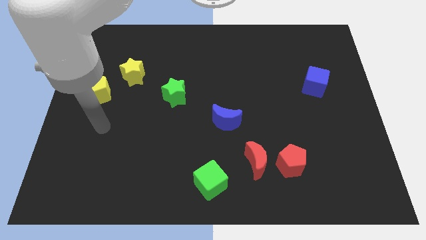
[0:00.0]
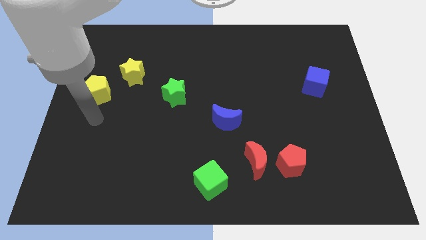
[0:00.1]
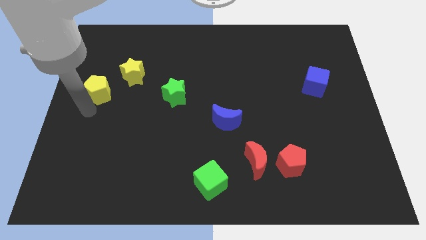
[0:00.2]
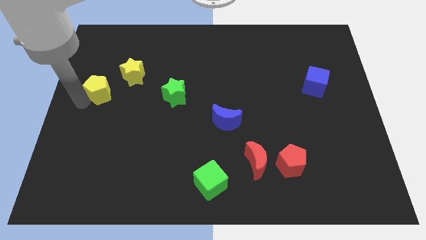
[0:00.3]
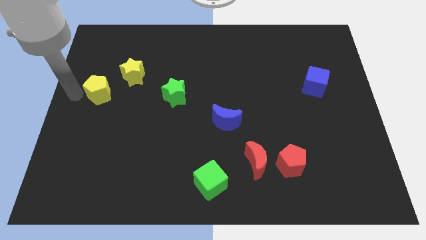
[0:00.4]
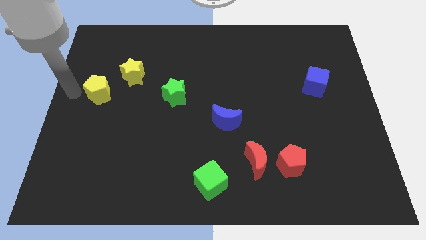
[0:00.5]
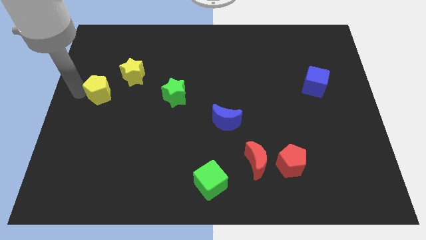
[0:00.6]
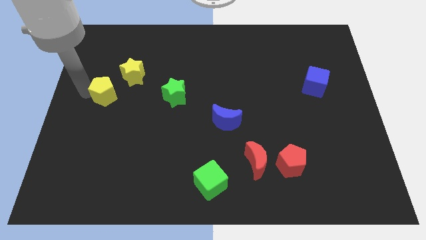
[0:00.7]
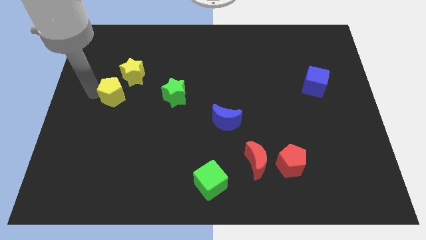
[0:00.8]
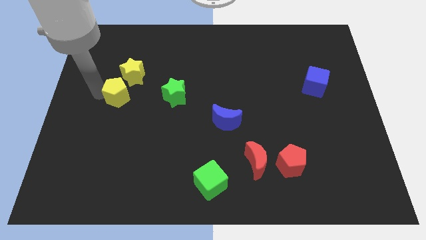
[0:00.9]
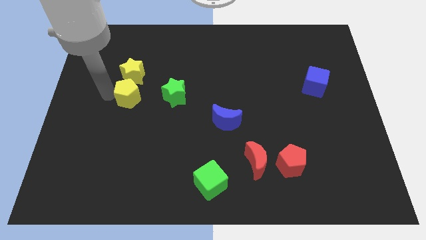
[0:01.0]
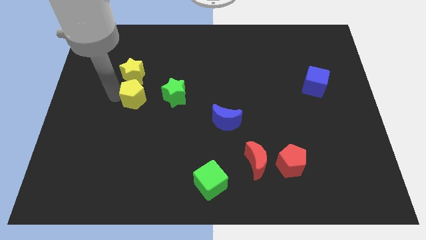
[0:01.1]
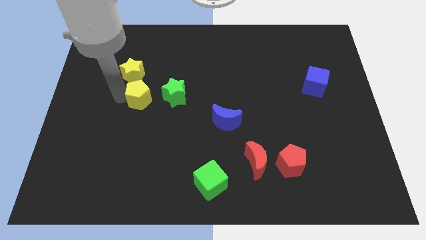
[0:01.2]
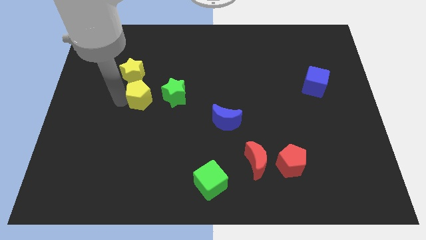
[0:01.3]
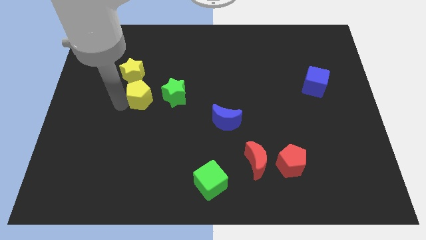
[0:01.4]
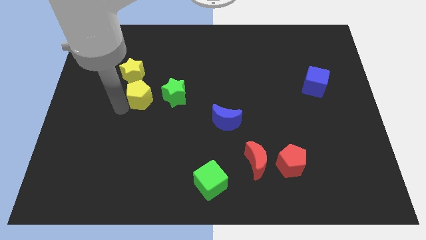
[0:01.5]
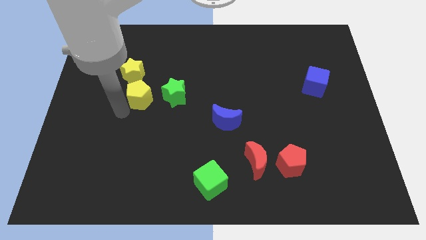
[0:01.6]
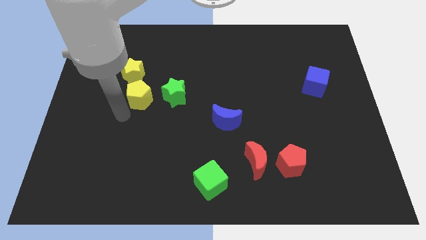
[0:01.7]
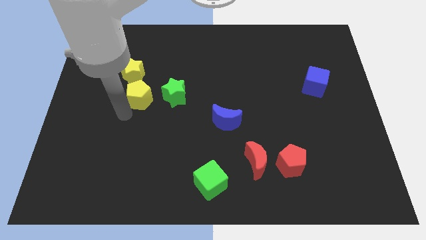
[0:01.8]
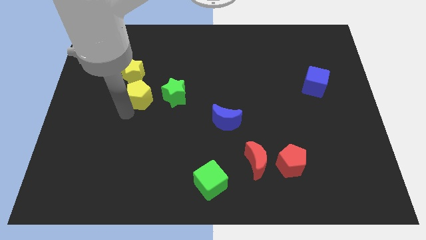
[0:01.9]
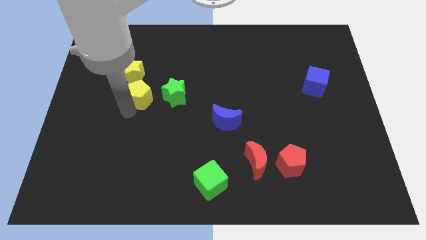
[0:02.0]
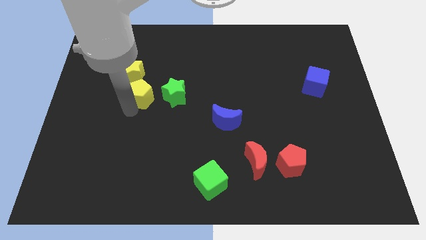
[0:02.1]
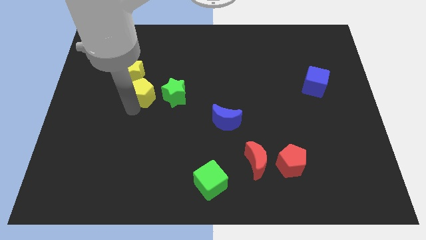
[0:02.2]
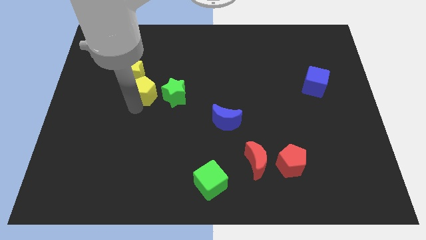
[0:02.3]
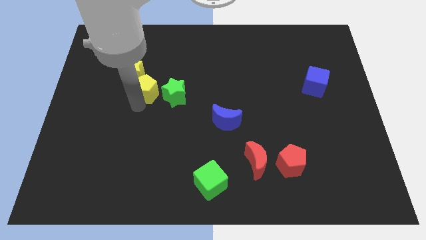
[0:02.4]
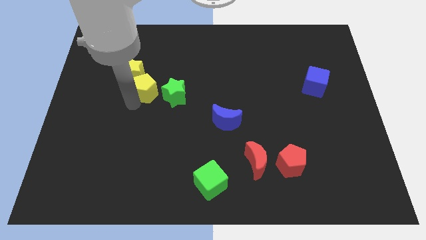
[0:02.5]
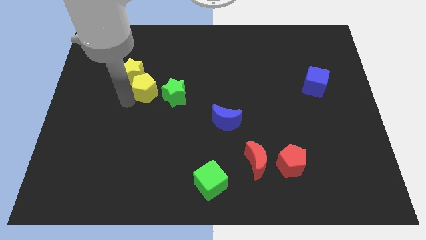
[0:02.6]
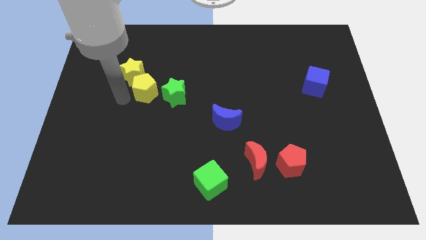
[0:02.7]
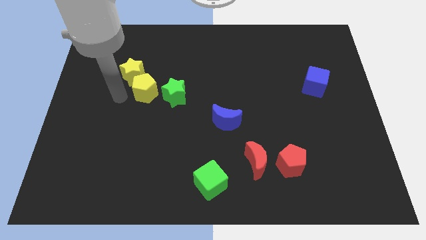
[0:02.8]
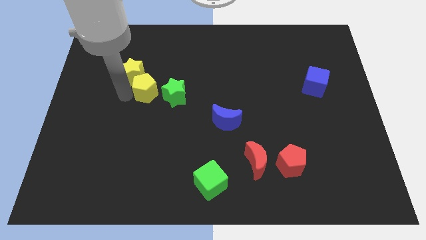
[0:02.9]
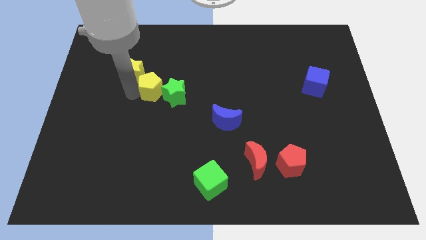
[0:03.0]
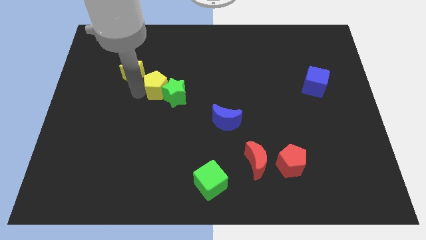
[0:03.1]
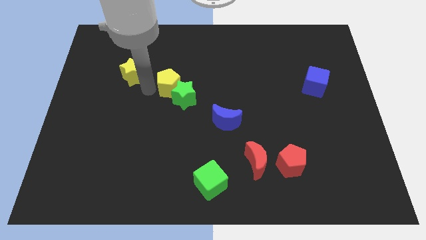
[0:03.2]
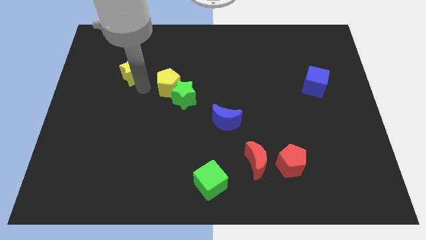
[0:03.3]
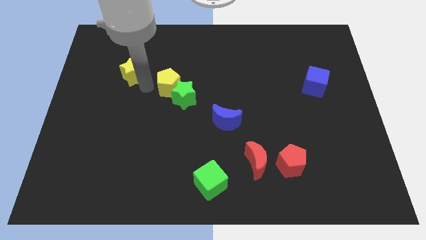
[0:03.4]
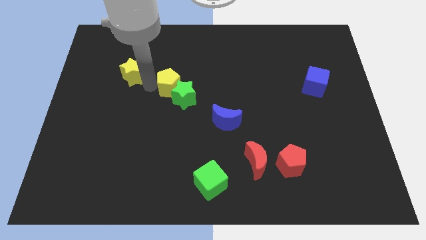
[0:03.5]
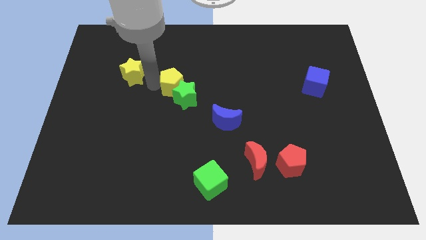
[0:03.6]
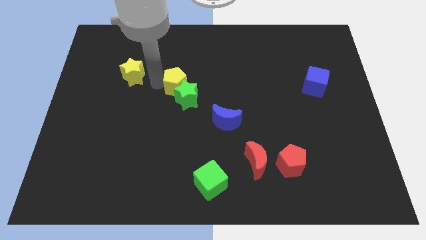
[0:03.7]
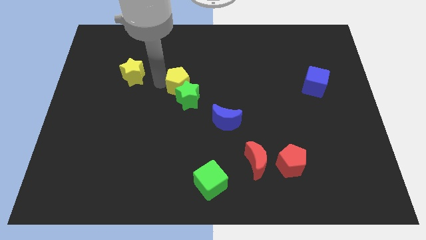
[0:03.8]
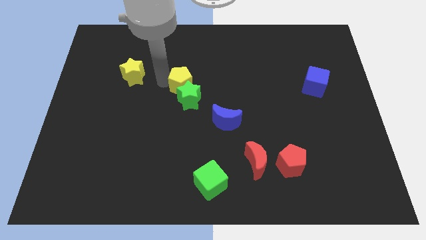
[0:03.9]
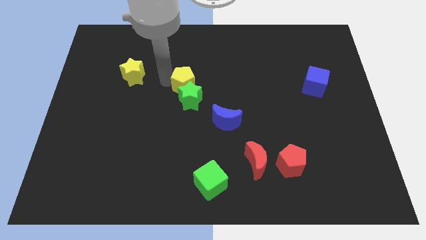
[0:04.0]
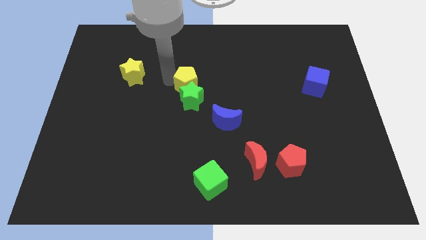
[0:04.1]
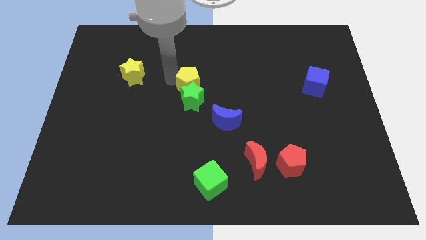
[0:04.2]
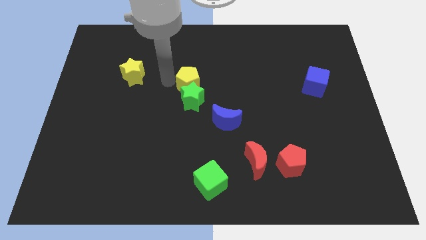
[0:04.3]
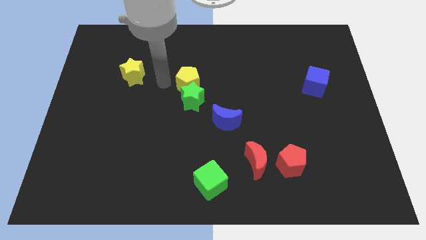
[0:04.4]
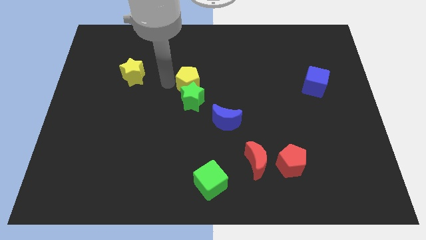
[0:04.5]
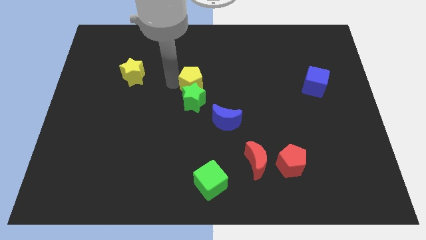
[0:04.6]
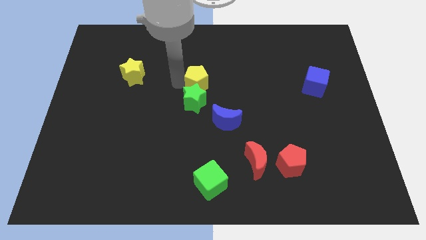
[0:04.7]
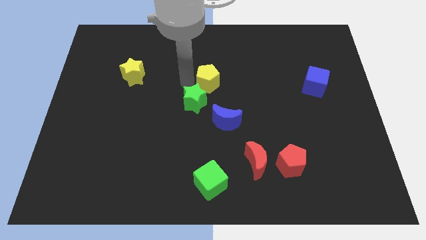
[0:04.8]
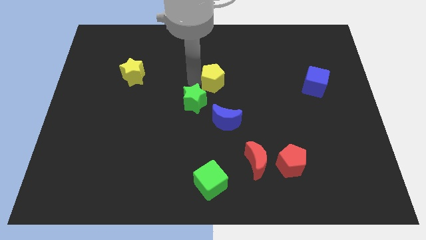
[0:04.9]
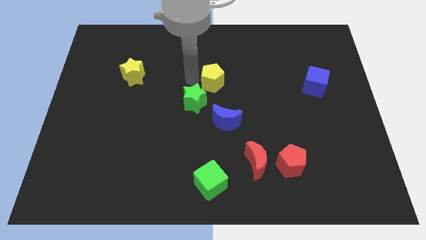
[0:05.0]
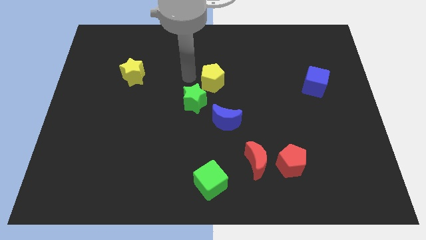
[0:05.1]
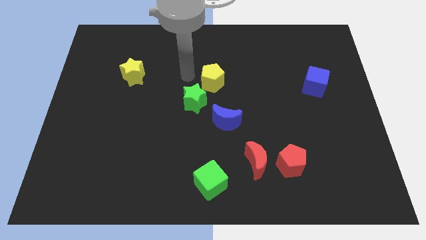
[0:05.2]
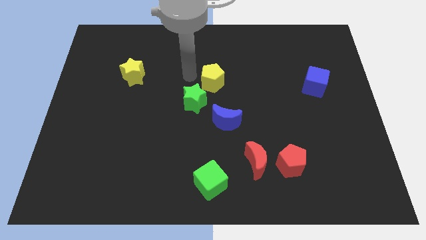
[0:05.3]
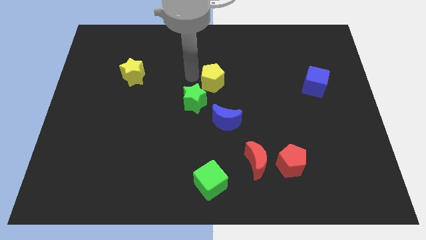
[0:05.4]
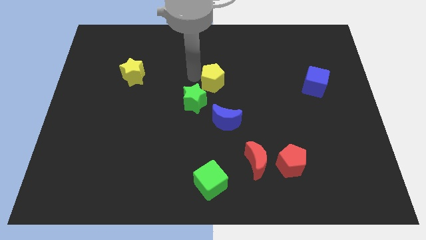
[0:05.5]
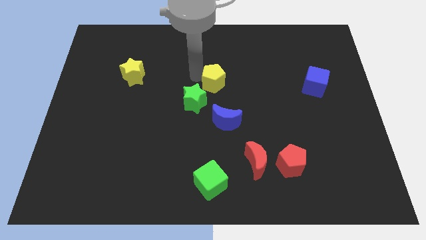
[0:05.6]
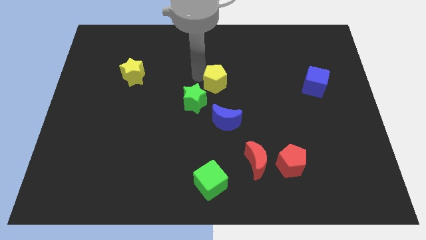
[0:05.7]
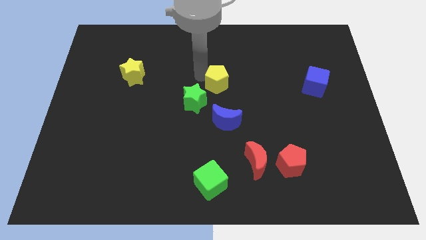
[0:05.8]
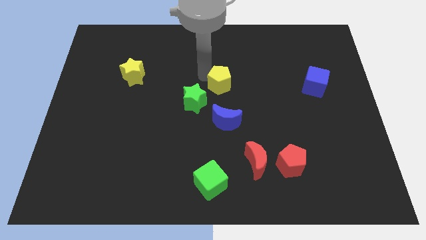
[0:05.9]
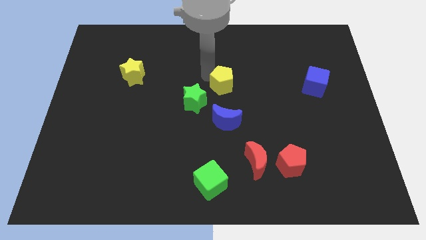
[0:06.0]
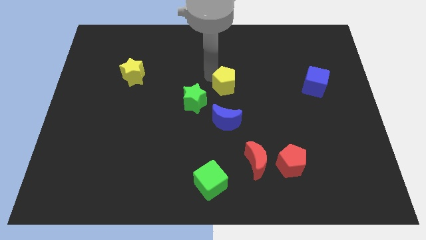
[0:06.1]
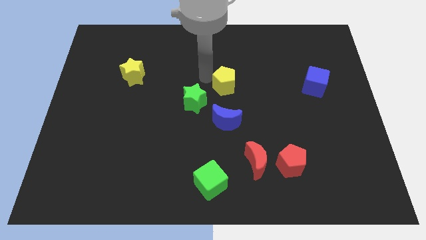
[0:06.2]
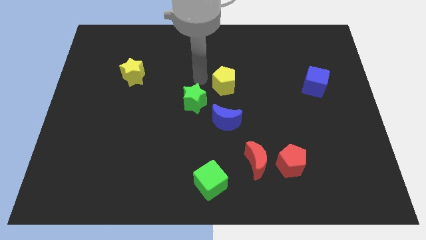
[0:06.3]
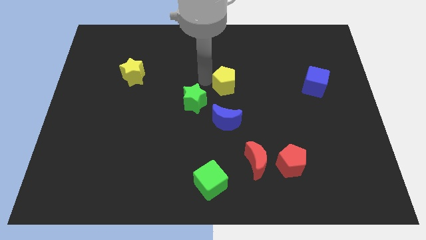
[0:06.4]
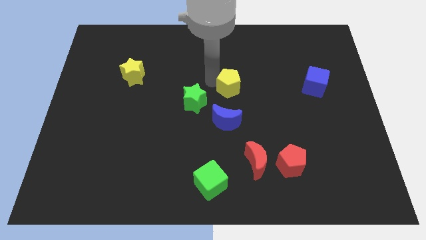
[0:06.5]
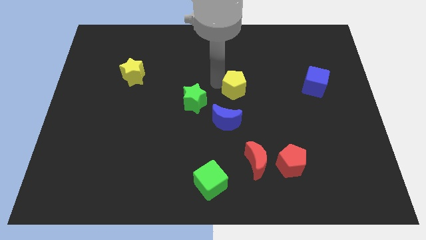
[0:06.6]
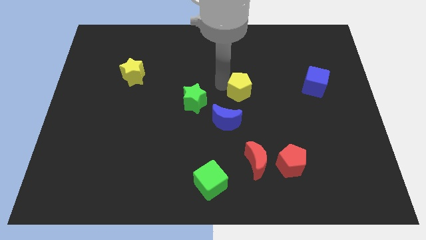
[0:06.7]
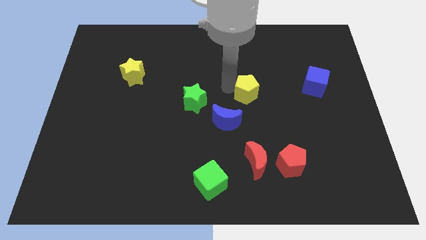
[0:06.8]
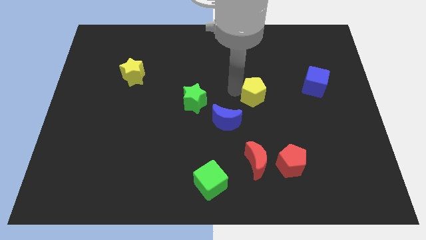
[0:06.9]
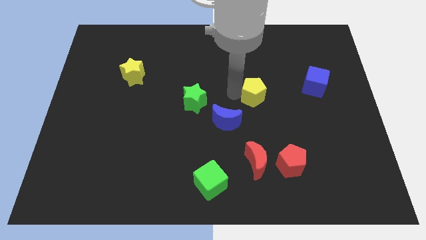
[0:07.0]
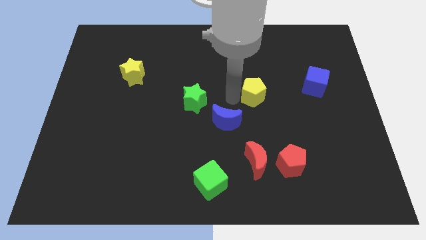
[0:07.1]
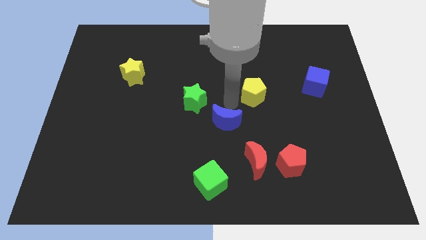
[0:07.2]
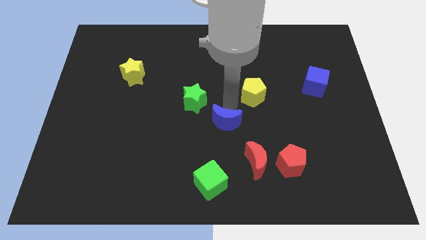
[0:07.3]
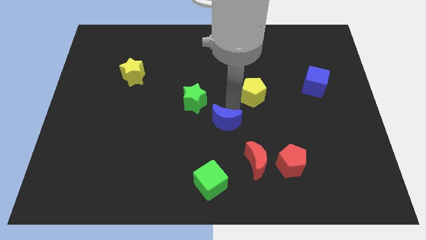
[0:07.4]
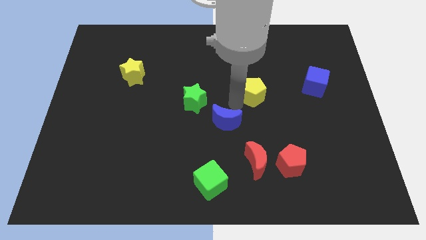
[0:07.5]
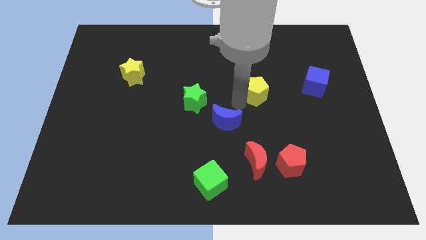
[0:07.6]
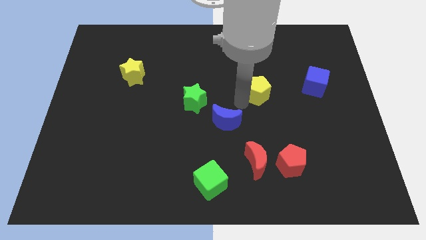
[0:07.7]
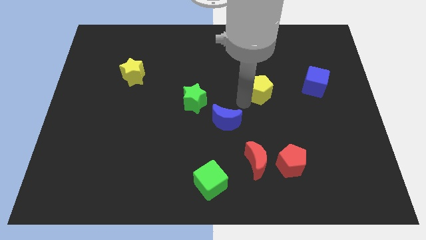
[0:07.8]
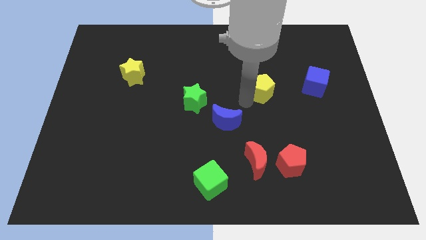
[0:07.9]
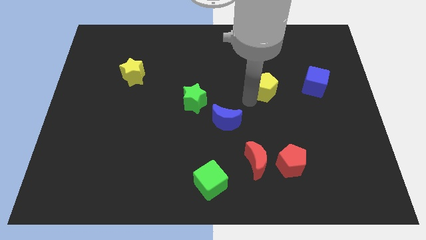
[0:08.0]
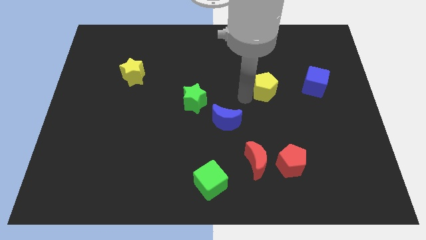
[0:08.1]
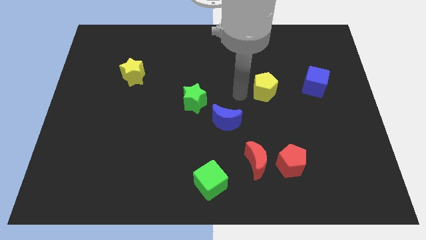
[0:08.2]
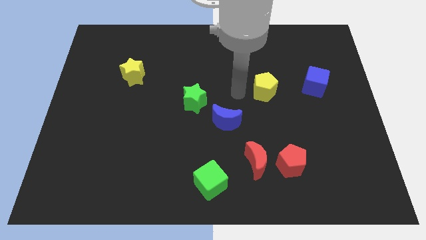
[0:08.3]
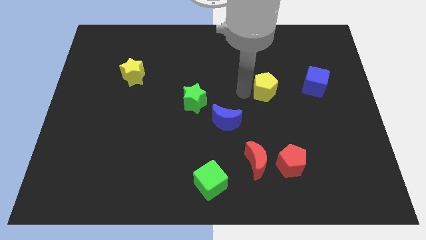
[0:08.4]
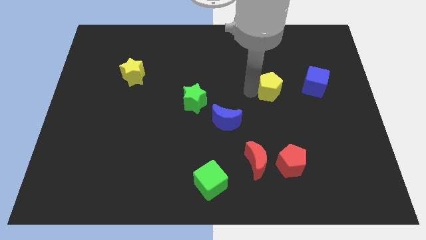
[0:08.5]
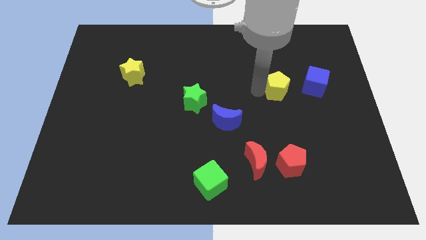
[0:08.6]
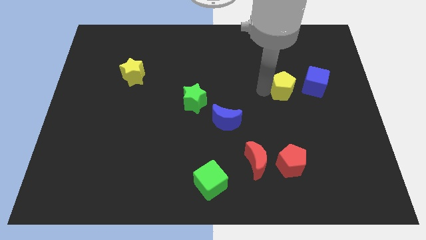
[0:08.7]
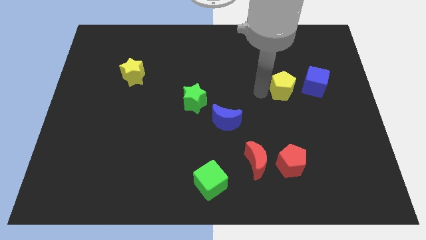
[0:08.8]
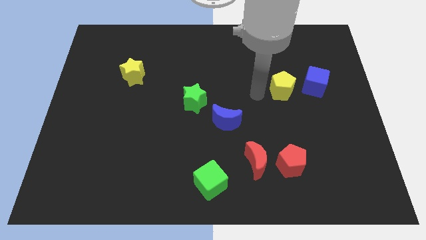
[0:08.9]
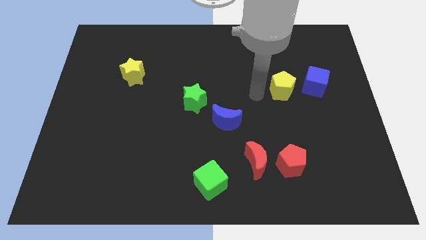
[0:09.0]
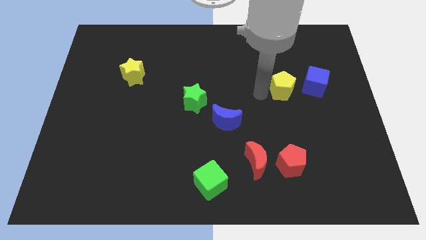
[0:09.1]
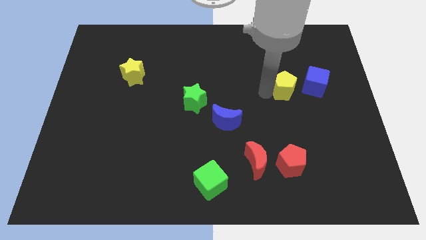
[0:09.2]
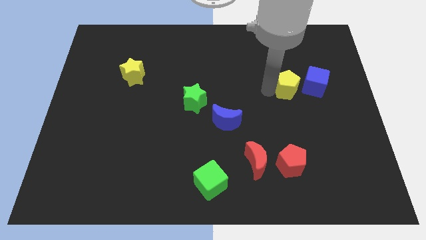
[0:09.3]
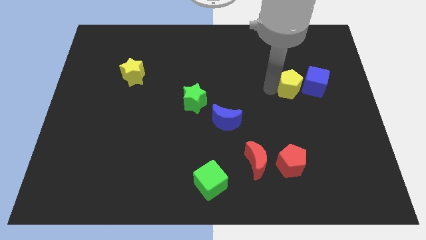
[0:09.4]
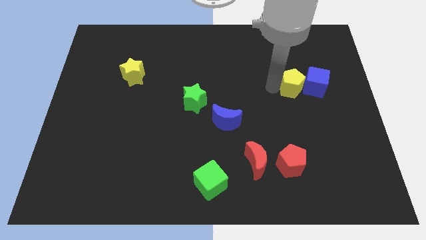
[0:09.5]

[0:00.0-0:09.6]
put the yellow pentagon to the blue cube
